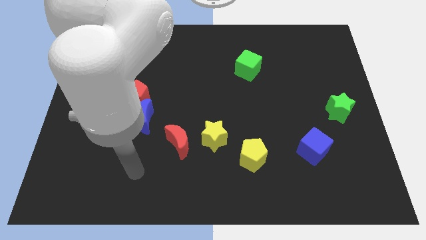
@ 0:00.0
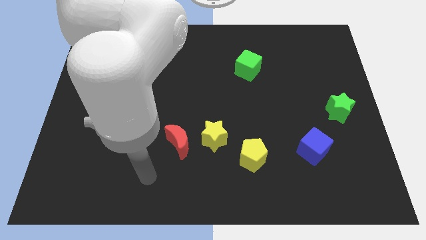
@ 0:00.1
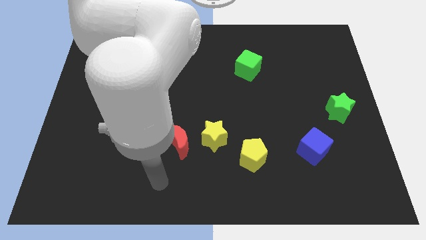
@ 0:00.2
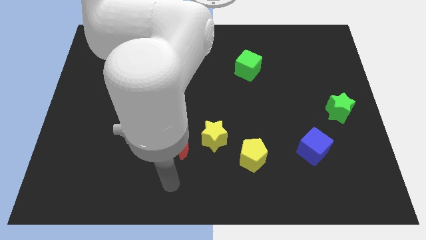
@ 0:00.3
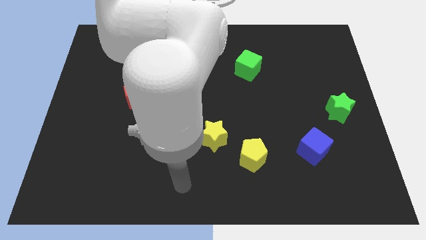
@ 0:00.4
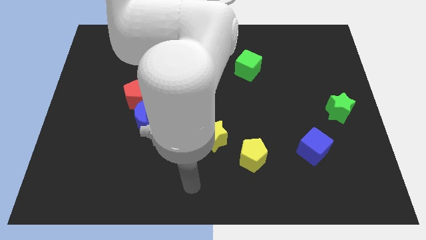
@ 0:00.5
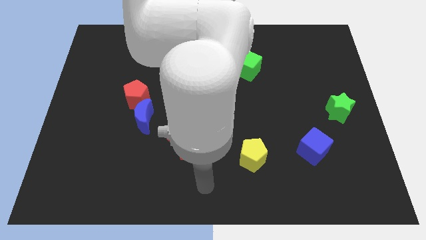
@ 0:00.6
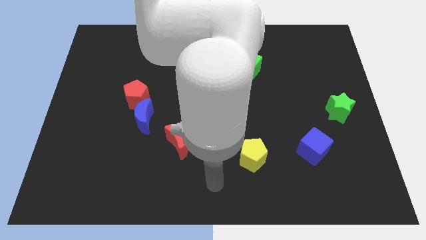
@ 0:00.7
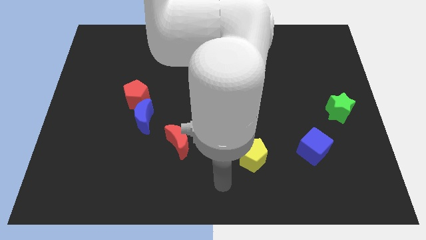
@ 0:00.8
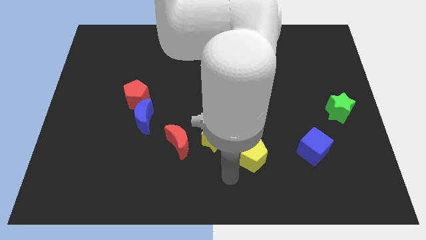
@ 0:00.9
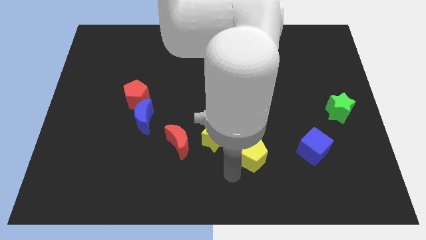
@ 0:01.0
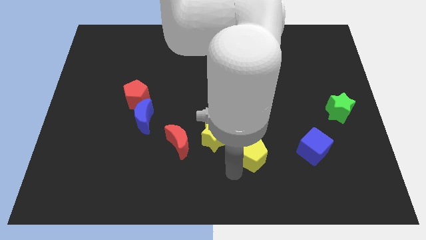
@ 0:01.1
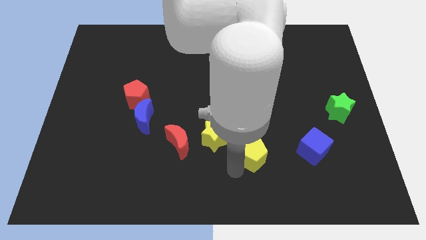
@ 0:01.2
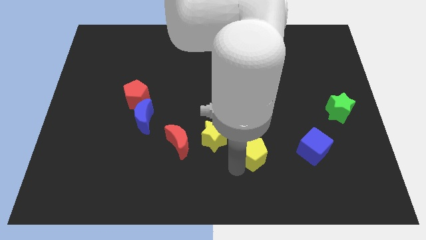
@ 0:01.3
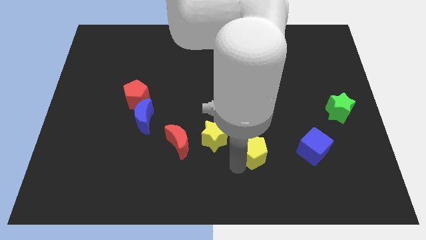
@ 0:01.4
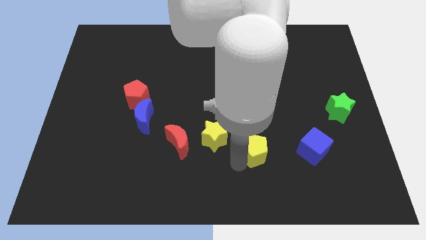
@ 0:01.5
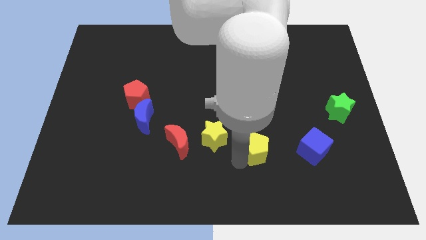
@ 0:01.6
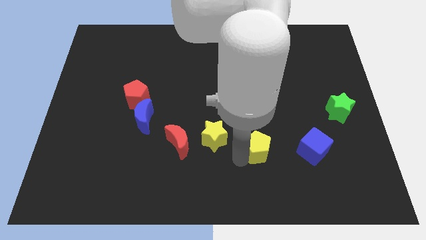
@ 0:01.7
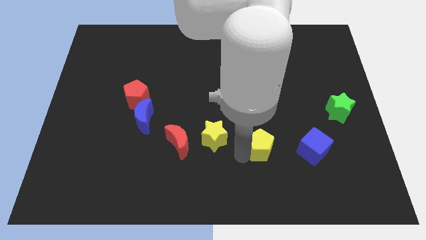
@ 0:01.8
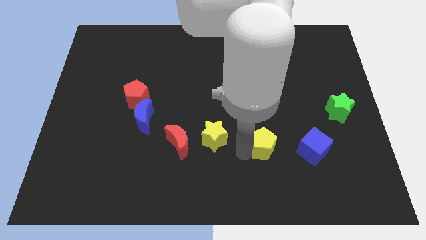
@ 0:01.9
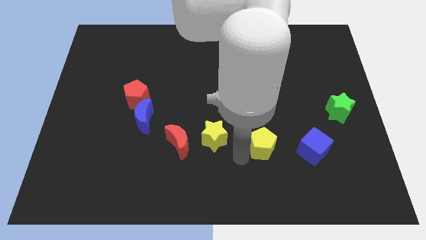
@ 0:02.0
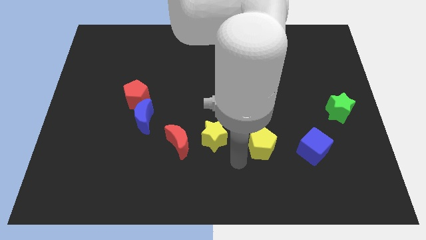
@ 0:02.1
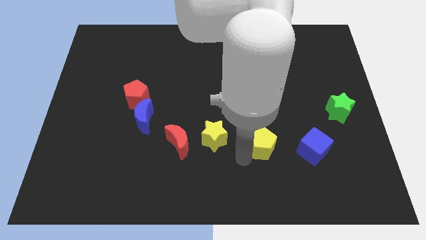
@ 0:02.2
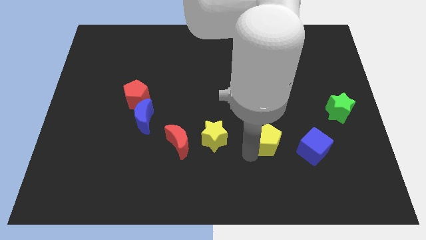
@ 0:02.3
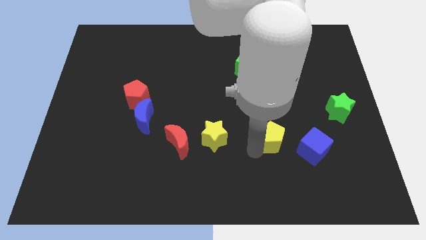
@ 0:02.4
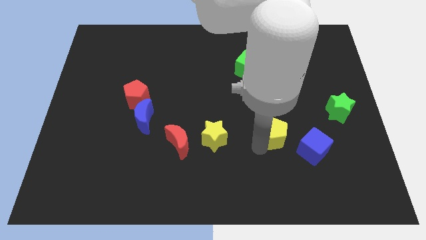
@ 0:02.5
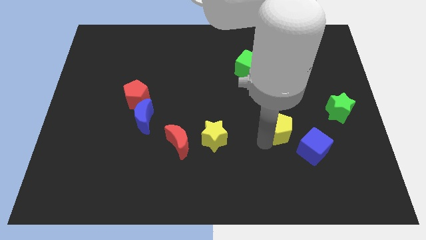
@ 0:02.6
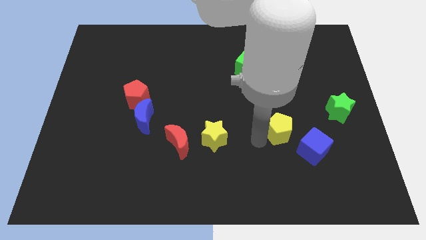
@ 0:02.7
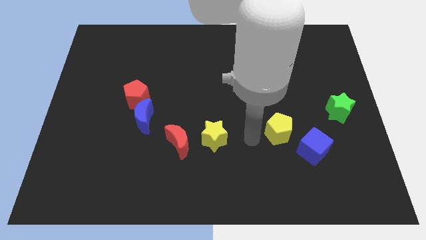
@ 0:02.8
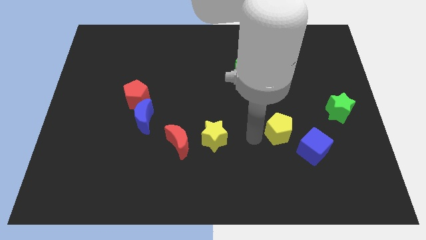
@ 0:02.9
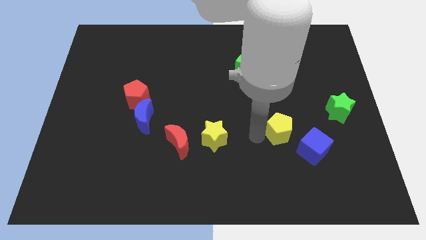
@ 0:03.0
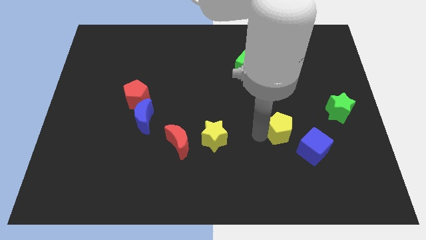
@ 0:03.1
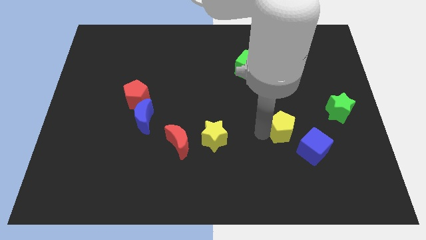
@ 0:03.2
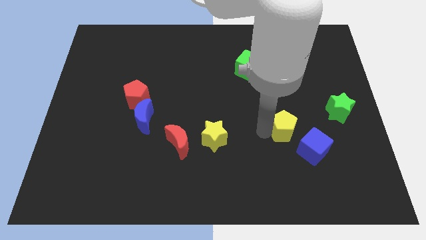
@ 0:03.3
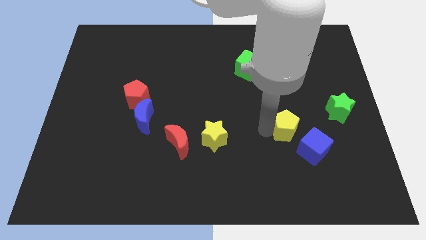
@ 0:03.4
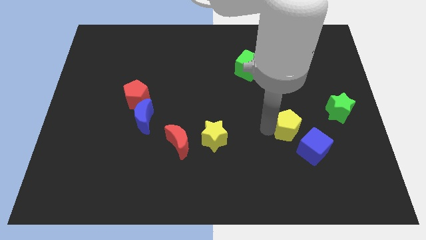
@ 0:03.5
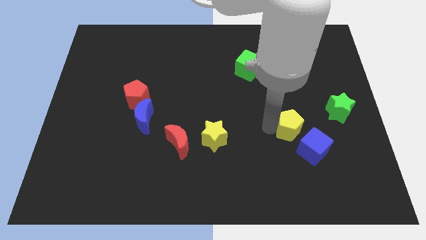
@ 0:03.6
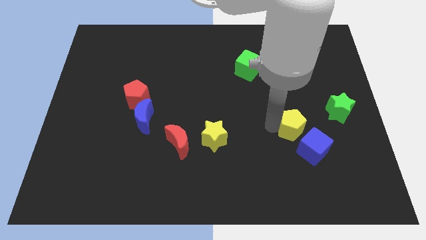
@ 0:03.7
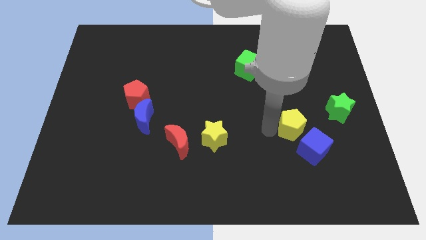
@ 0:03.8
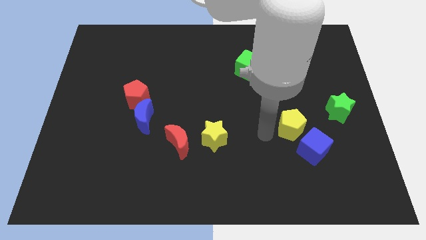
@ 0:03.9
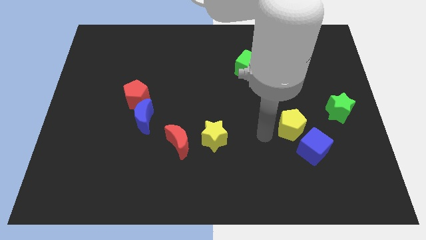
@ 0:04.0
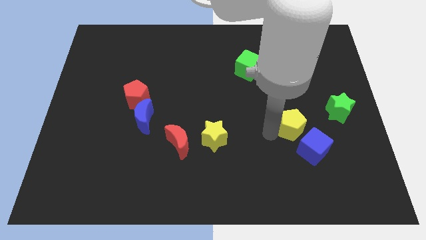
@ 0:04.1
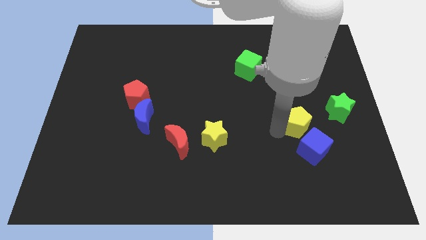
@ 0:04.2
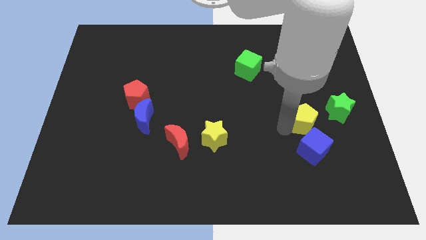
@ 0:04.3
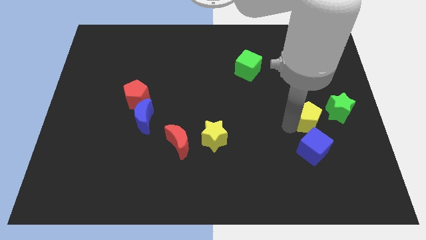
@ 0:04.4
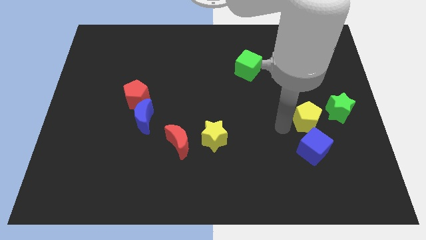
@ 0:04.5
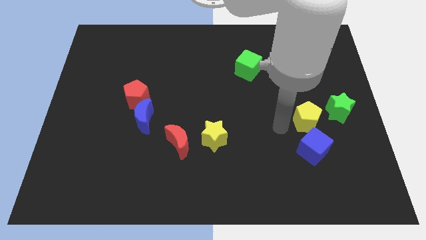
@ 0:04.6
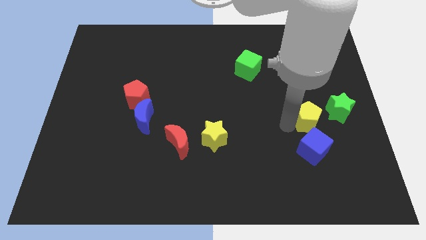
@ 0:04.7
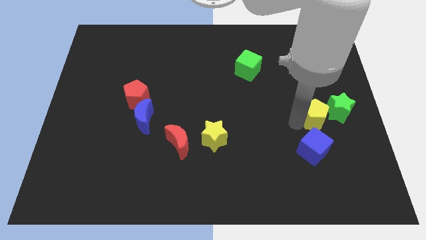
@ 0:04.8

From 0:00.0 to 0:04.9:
push the yellow pentagon to the green star
